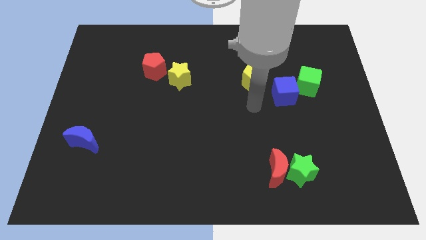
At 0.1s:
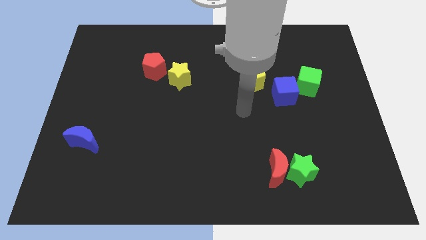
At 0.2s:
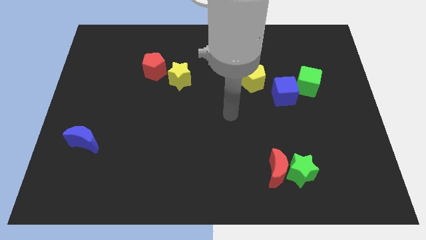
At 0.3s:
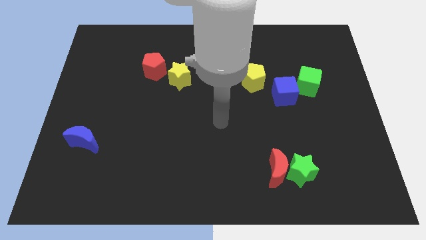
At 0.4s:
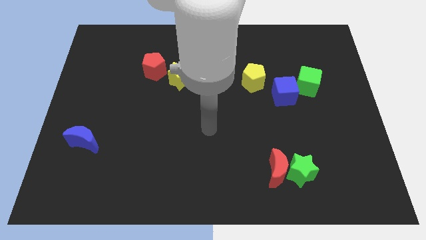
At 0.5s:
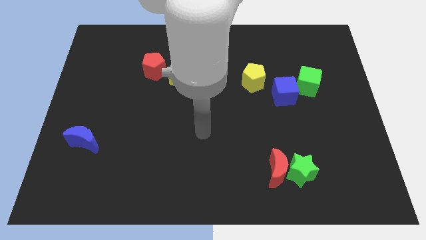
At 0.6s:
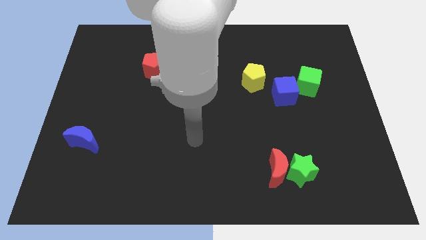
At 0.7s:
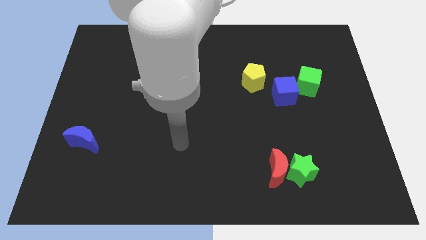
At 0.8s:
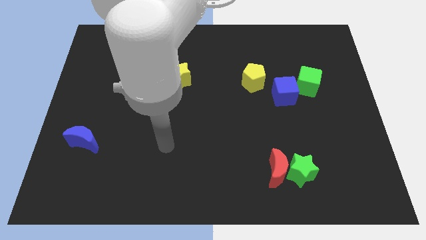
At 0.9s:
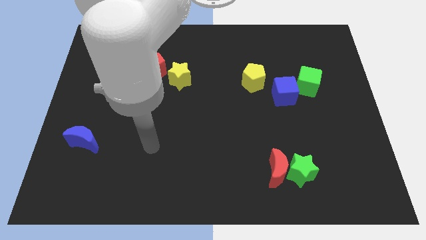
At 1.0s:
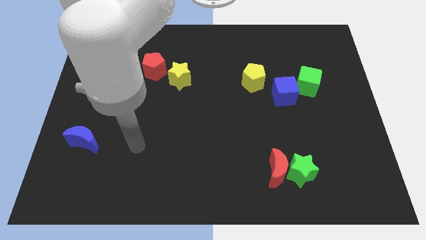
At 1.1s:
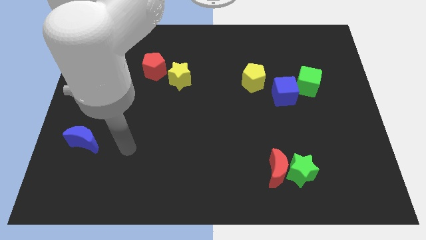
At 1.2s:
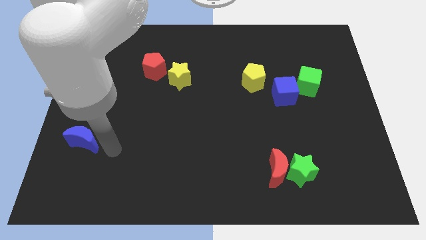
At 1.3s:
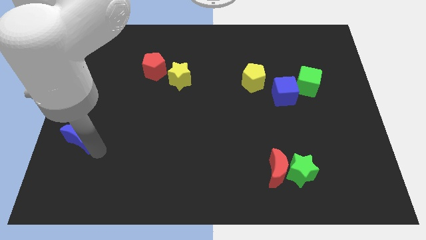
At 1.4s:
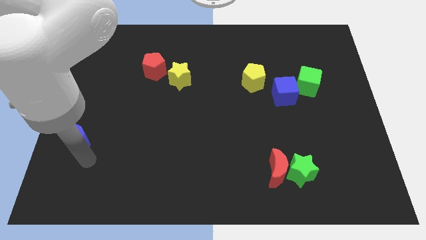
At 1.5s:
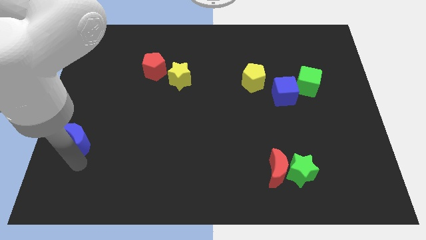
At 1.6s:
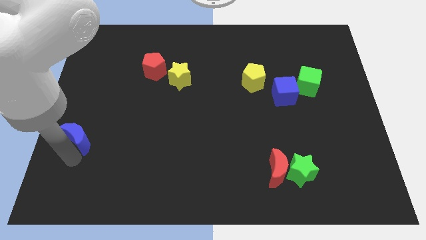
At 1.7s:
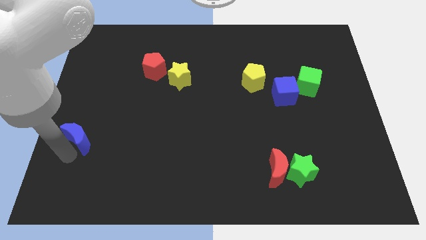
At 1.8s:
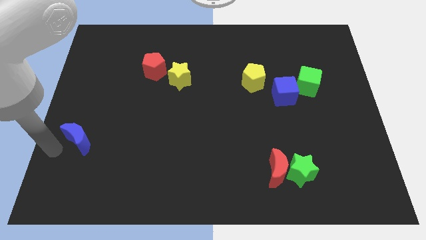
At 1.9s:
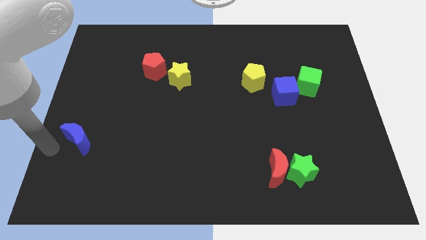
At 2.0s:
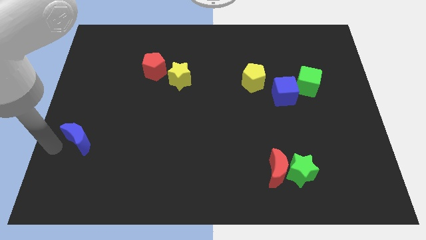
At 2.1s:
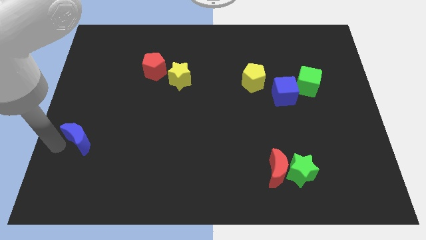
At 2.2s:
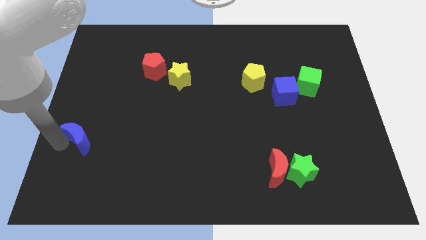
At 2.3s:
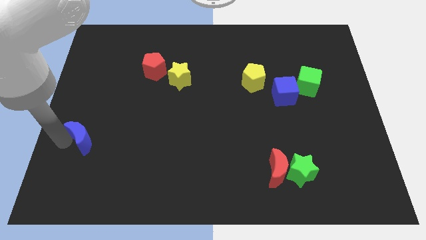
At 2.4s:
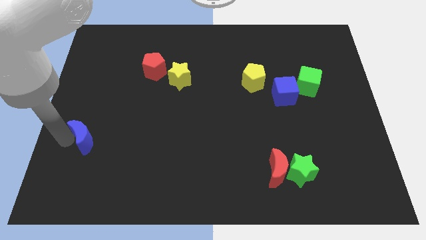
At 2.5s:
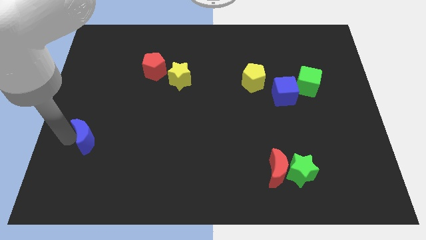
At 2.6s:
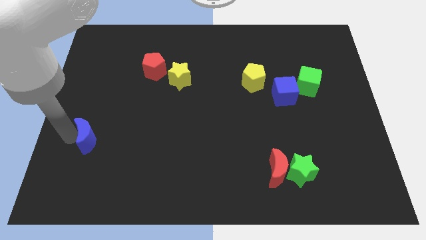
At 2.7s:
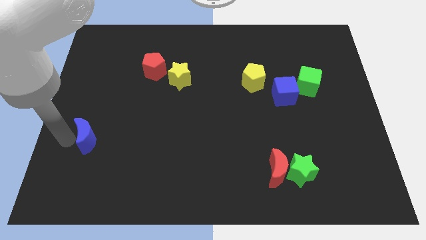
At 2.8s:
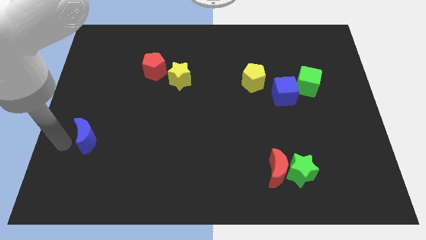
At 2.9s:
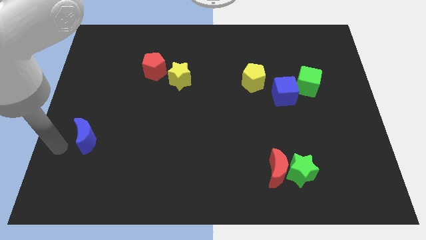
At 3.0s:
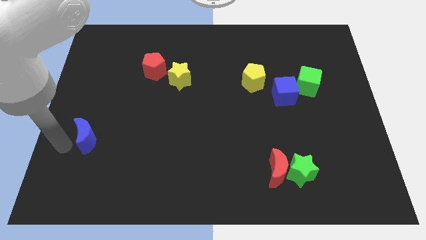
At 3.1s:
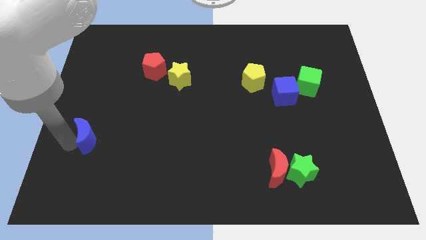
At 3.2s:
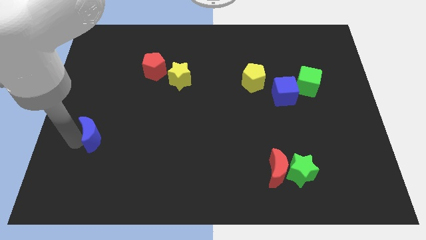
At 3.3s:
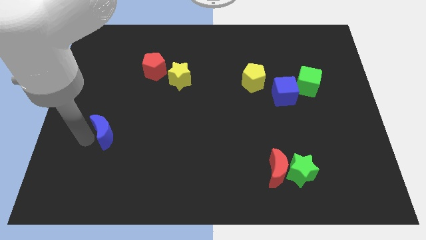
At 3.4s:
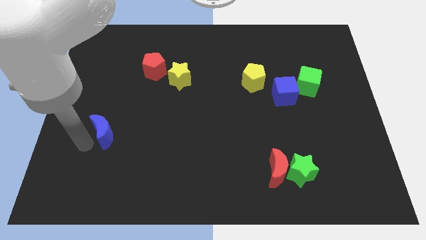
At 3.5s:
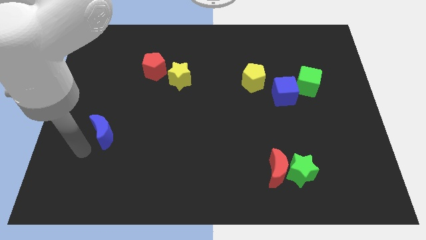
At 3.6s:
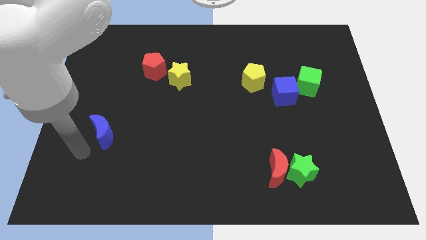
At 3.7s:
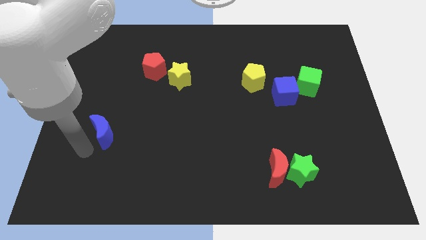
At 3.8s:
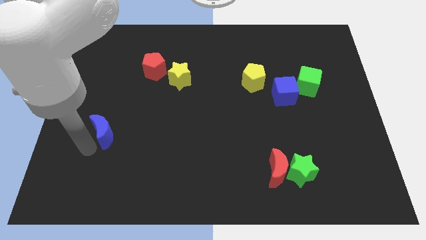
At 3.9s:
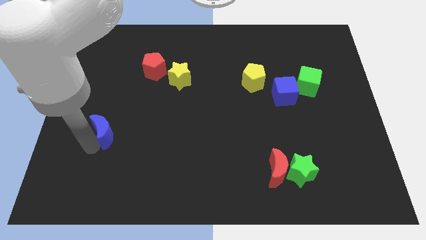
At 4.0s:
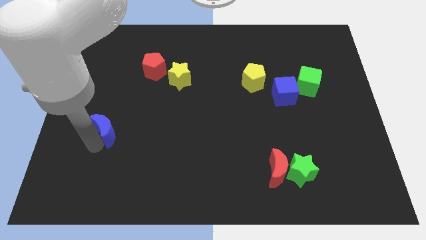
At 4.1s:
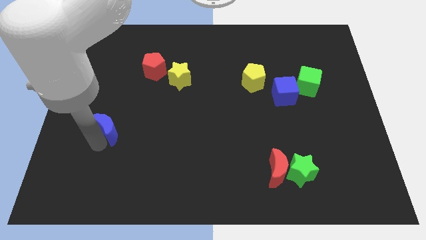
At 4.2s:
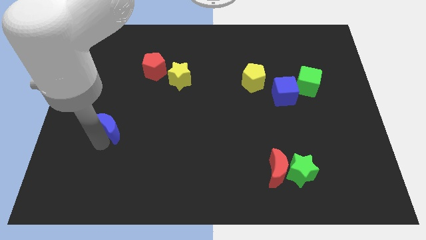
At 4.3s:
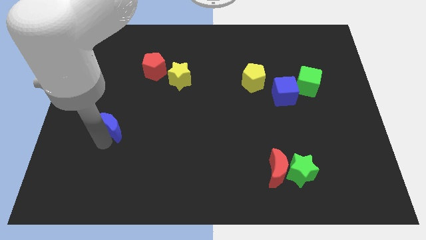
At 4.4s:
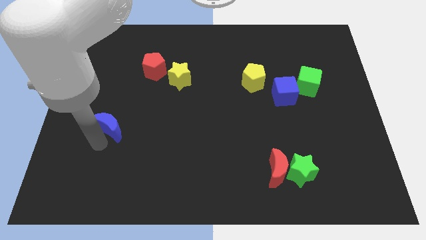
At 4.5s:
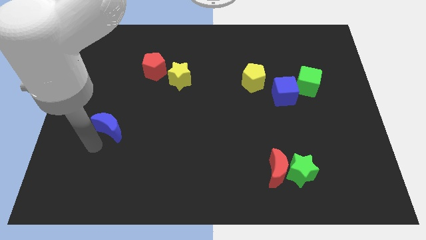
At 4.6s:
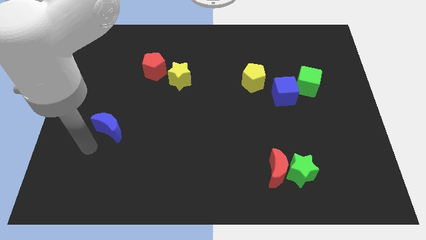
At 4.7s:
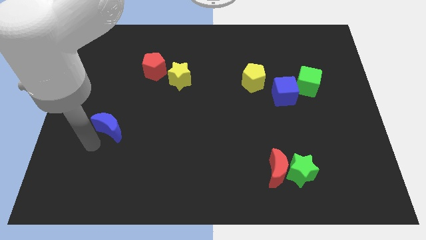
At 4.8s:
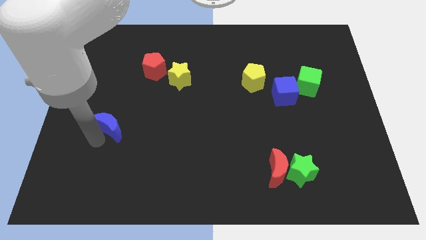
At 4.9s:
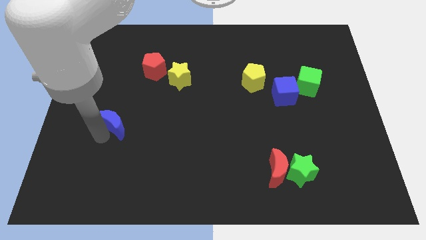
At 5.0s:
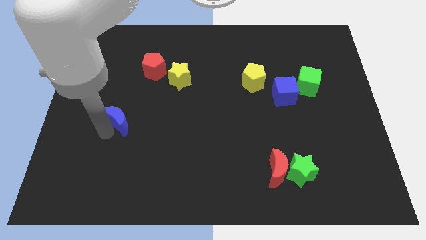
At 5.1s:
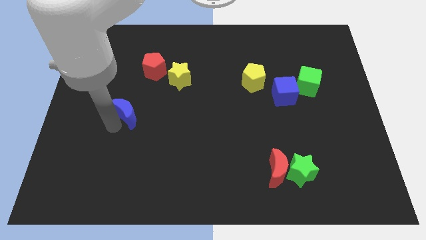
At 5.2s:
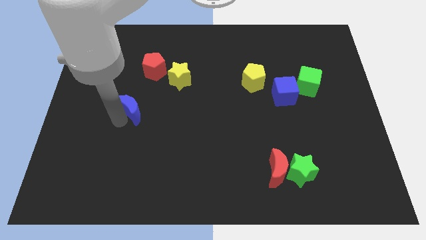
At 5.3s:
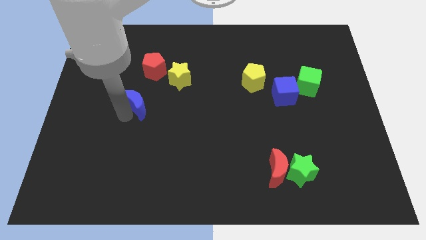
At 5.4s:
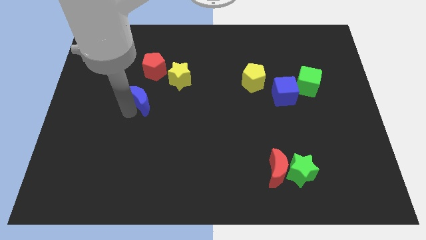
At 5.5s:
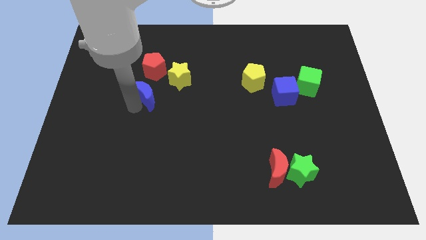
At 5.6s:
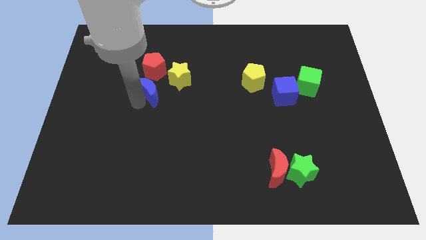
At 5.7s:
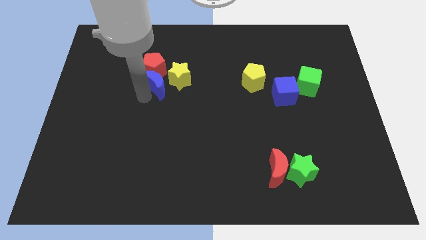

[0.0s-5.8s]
put the blue moon to the yellow star

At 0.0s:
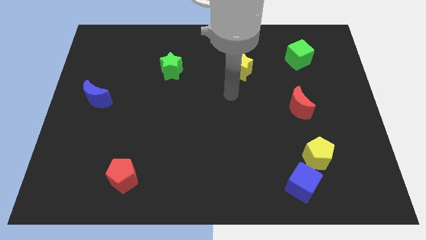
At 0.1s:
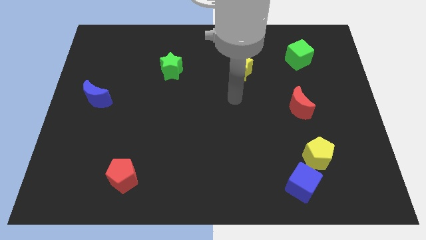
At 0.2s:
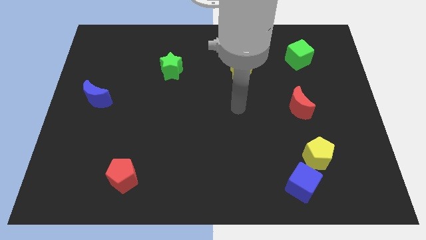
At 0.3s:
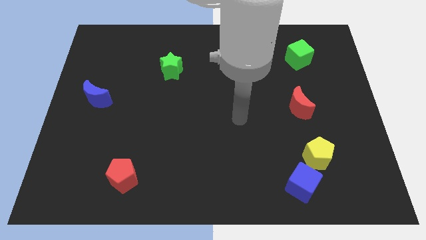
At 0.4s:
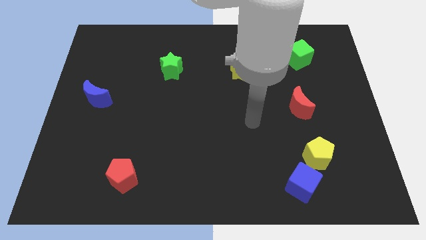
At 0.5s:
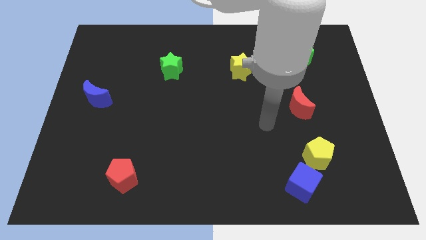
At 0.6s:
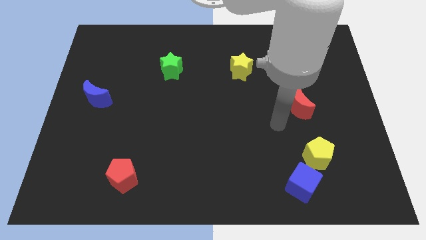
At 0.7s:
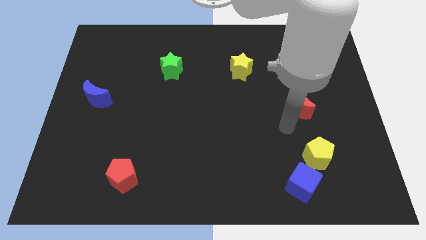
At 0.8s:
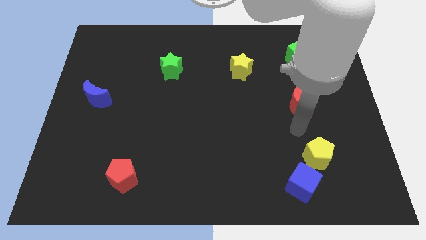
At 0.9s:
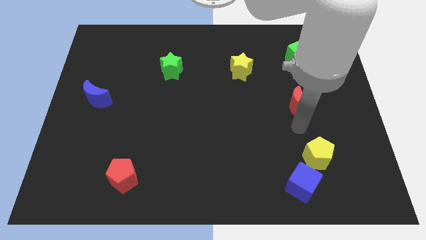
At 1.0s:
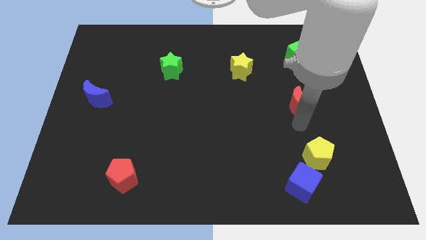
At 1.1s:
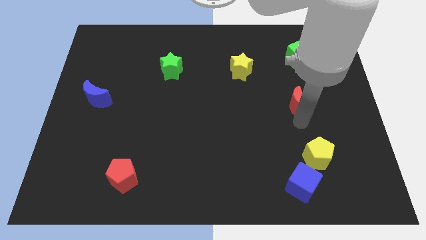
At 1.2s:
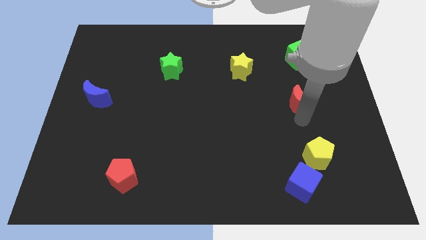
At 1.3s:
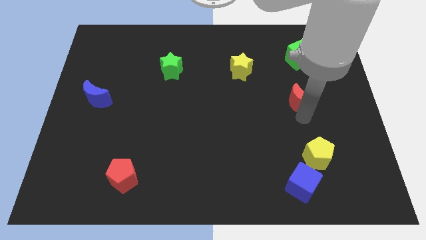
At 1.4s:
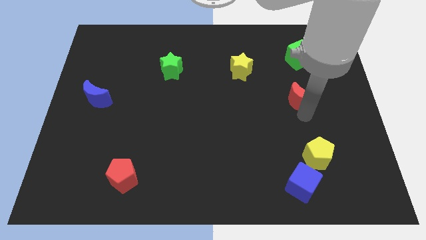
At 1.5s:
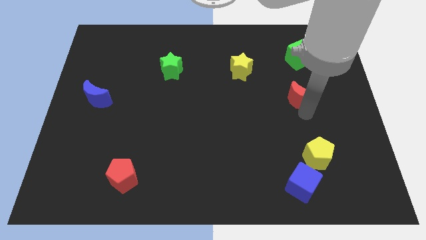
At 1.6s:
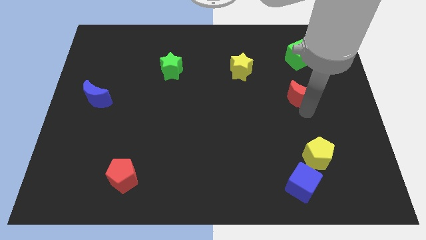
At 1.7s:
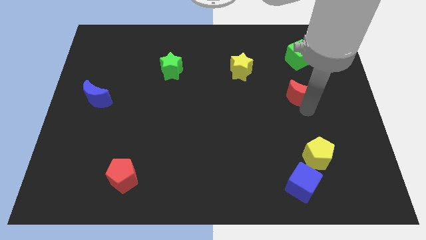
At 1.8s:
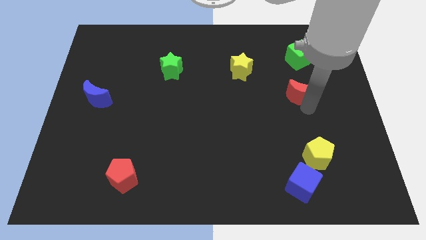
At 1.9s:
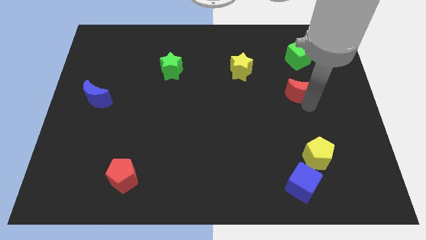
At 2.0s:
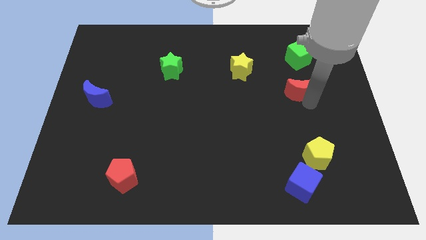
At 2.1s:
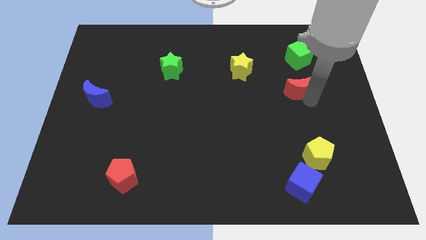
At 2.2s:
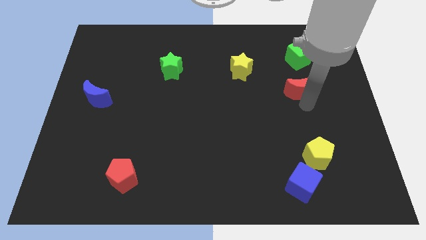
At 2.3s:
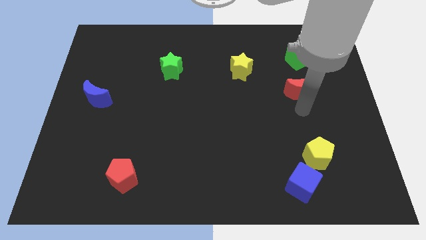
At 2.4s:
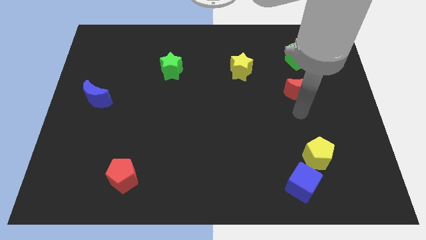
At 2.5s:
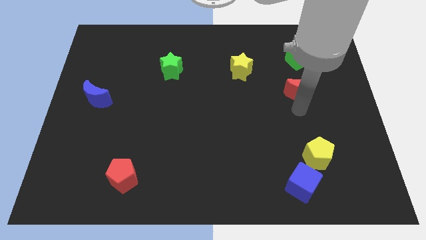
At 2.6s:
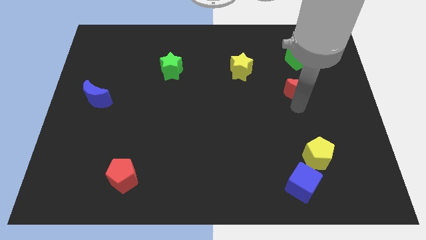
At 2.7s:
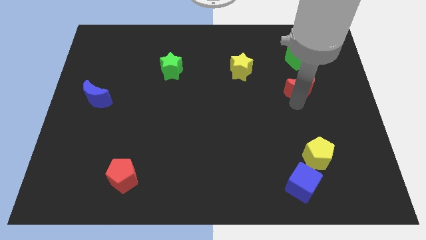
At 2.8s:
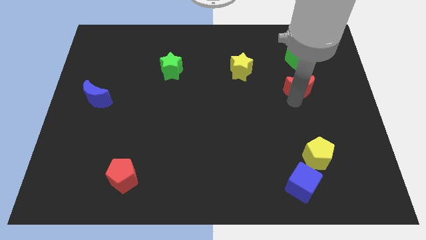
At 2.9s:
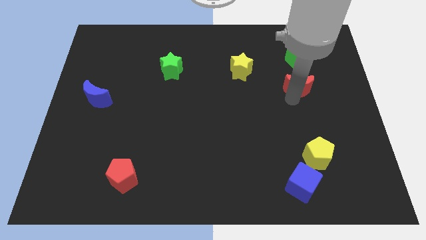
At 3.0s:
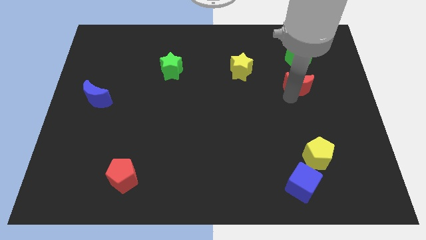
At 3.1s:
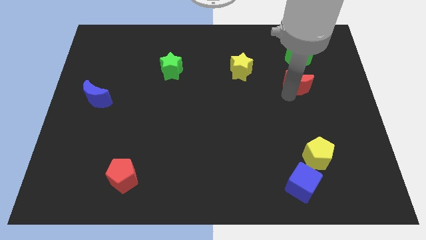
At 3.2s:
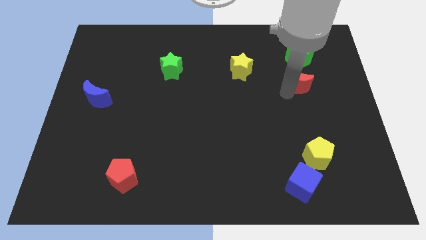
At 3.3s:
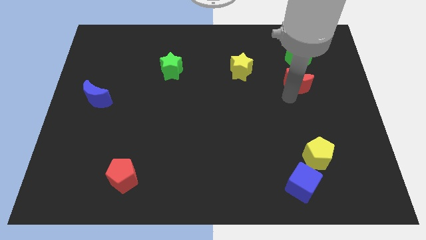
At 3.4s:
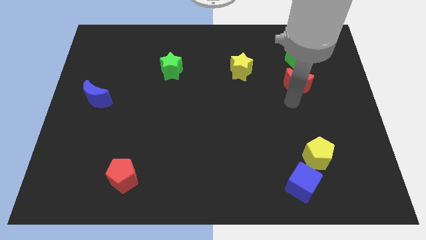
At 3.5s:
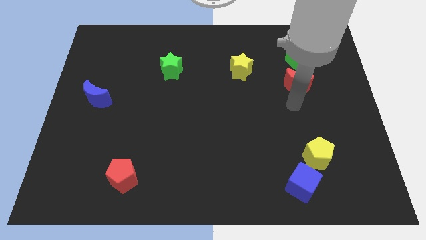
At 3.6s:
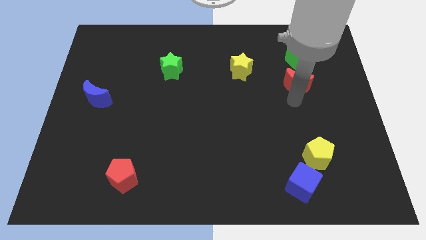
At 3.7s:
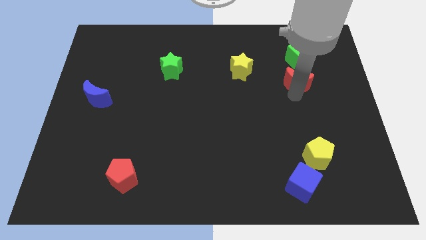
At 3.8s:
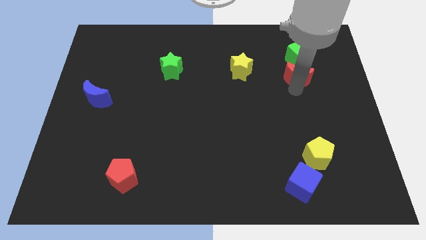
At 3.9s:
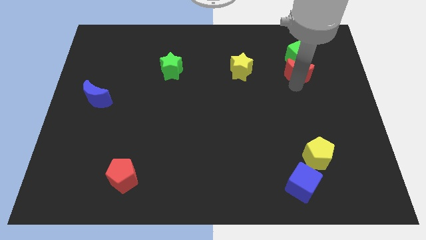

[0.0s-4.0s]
put the red moon close to the green cube
